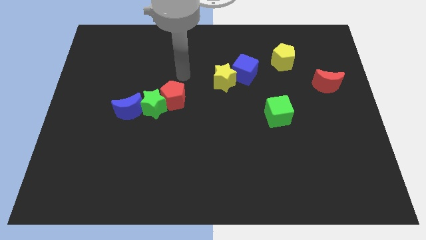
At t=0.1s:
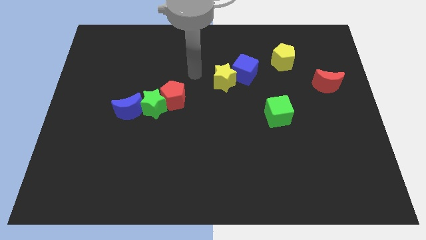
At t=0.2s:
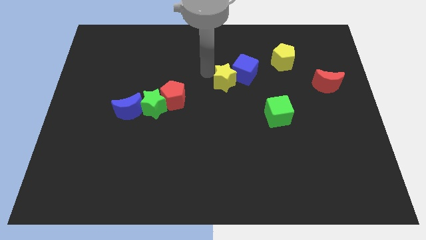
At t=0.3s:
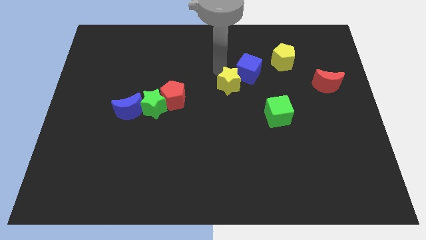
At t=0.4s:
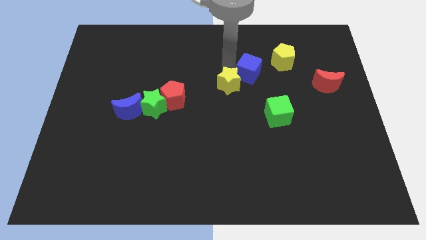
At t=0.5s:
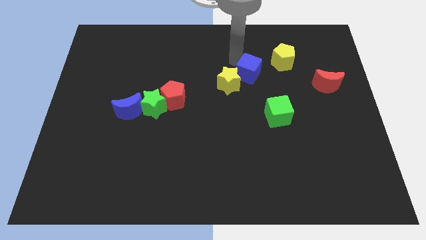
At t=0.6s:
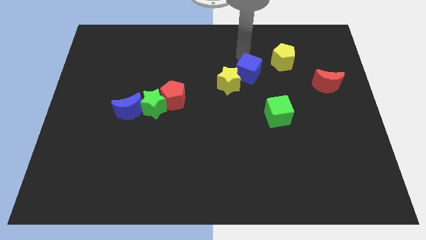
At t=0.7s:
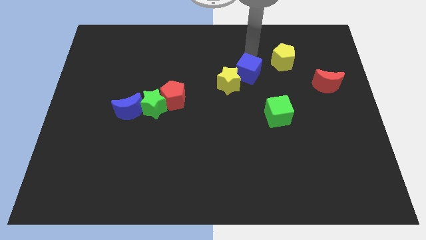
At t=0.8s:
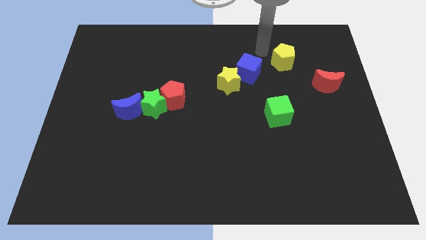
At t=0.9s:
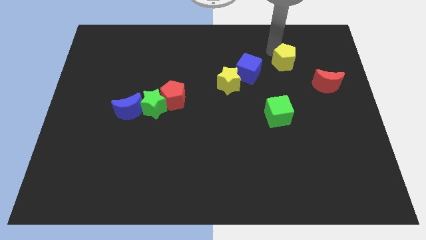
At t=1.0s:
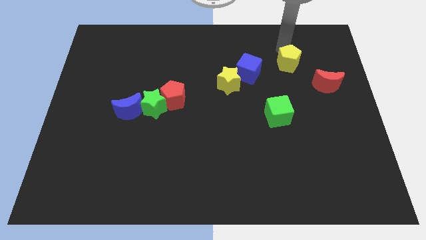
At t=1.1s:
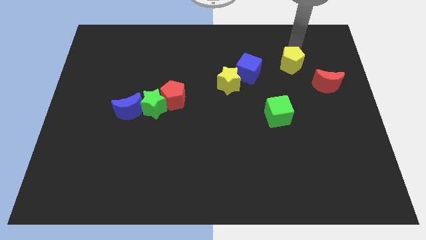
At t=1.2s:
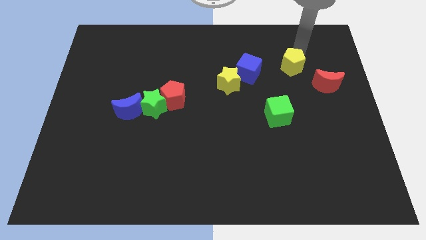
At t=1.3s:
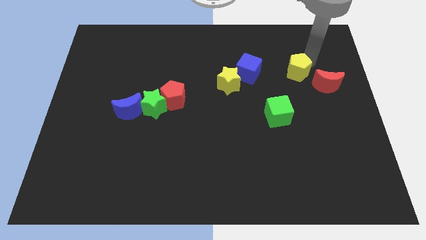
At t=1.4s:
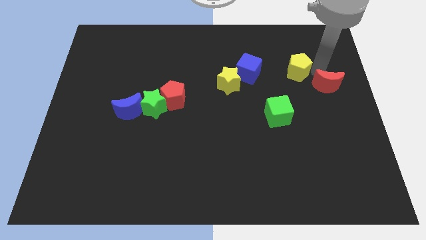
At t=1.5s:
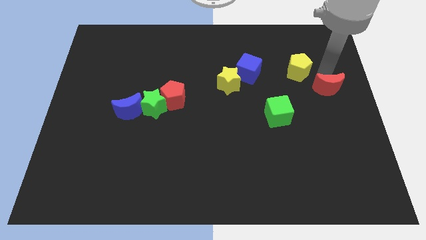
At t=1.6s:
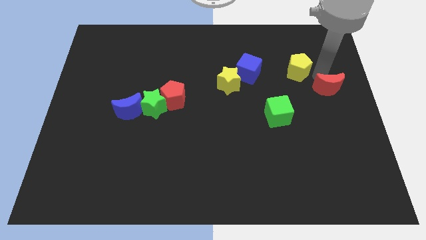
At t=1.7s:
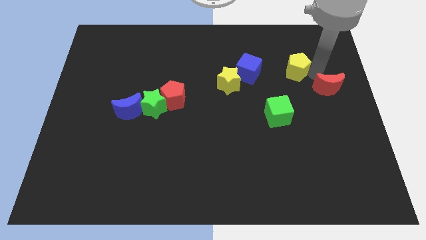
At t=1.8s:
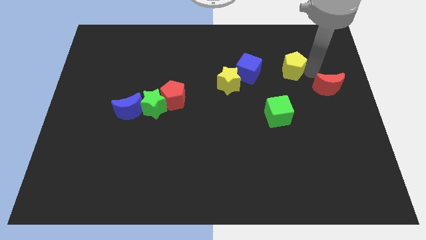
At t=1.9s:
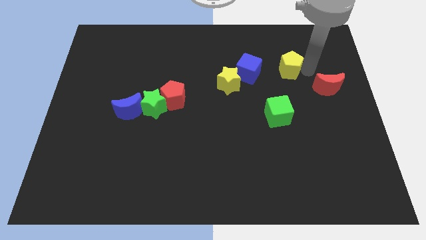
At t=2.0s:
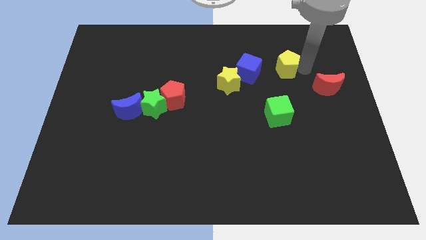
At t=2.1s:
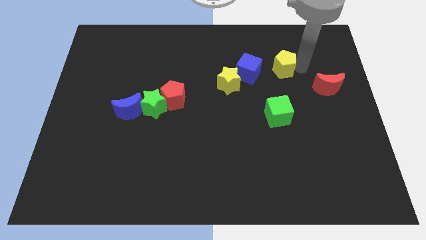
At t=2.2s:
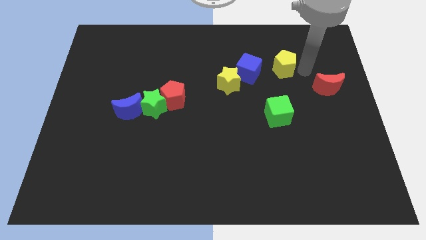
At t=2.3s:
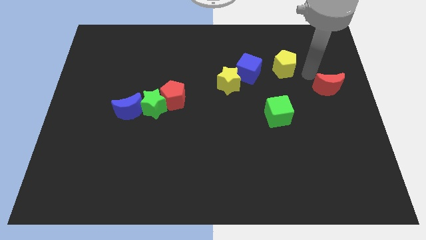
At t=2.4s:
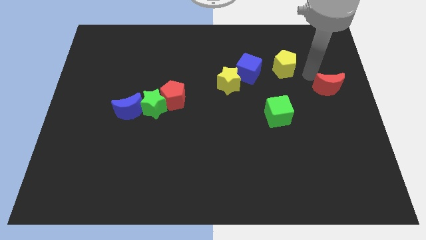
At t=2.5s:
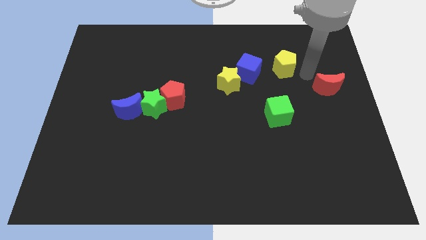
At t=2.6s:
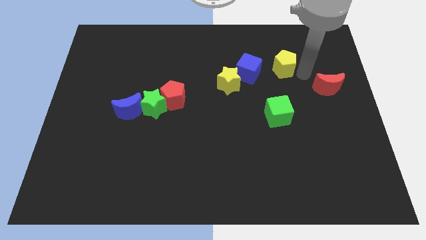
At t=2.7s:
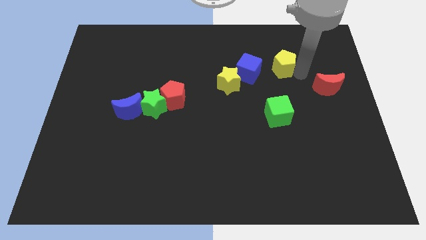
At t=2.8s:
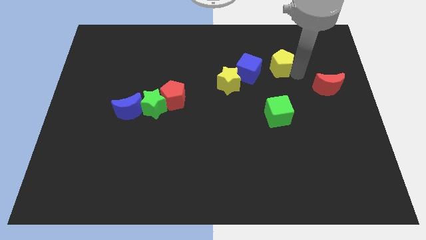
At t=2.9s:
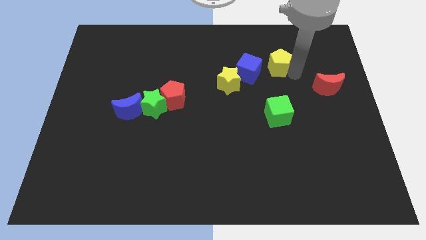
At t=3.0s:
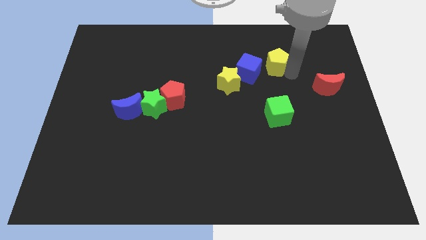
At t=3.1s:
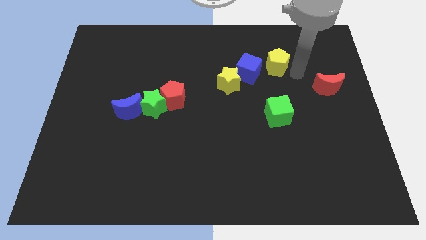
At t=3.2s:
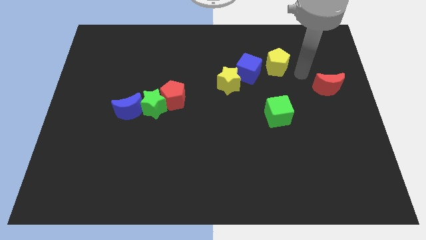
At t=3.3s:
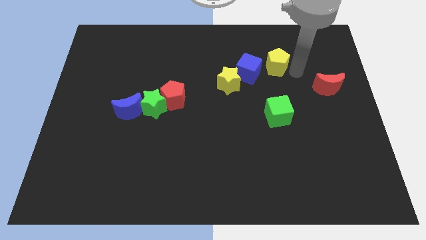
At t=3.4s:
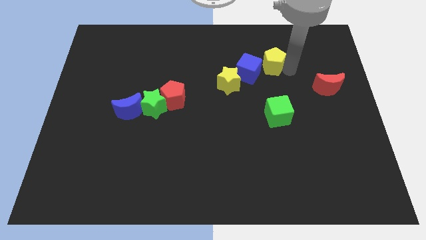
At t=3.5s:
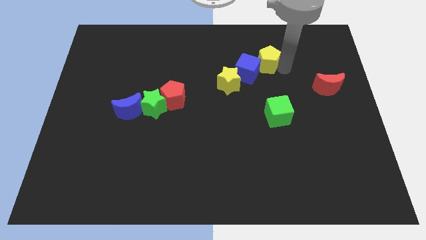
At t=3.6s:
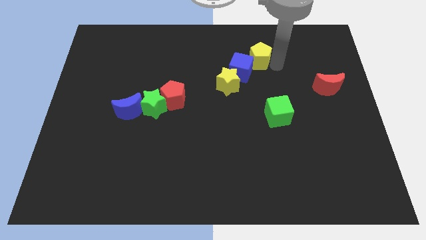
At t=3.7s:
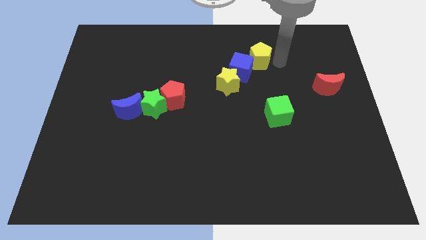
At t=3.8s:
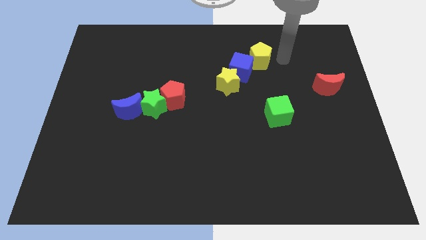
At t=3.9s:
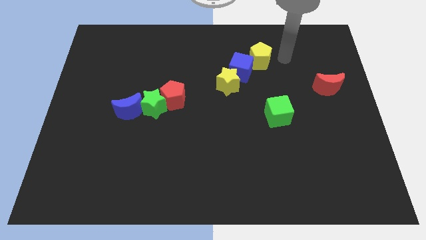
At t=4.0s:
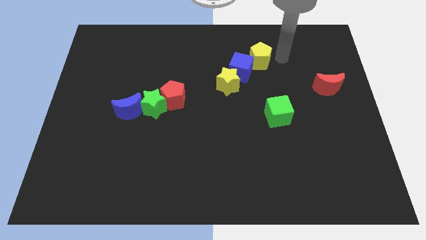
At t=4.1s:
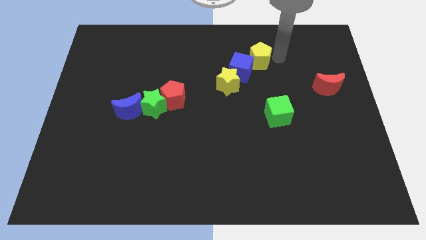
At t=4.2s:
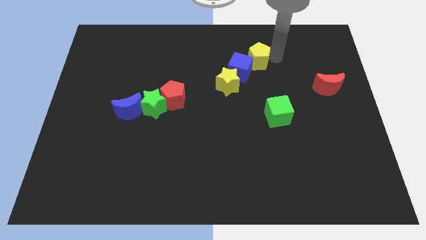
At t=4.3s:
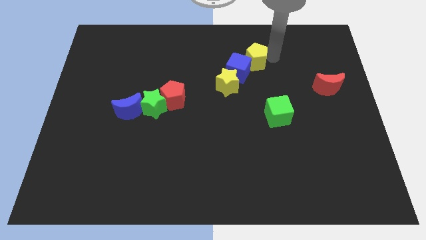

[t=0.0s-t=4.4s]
slide the yellow pentagon somewhat left

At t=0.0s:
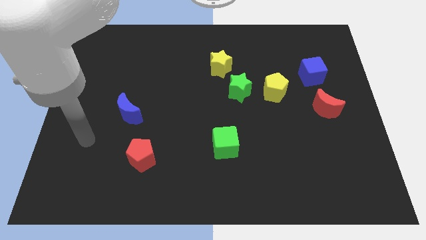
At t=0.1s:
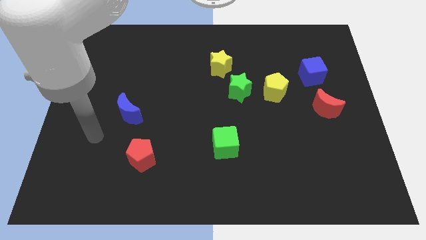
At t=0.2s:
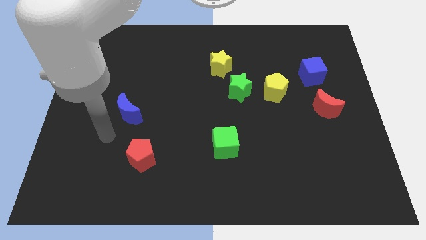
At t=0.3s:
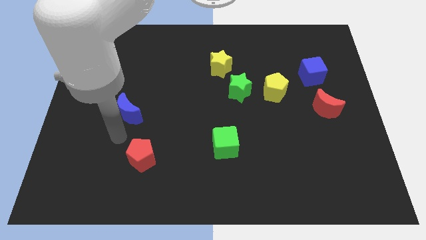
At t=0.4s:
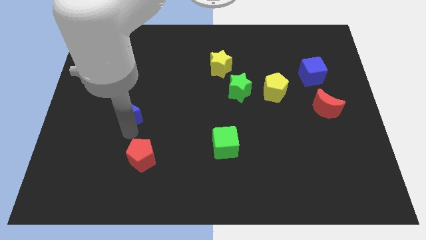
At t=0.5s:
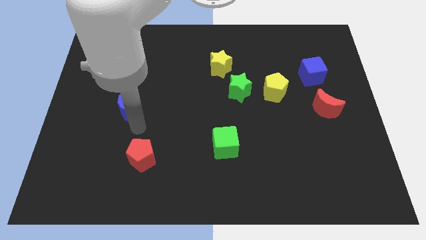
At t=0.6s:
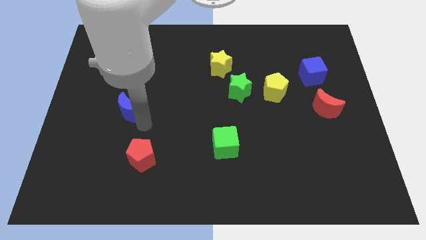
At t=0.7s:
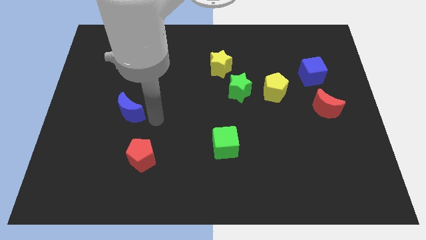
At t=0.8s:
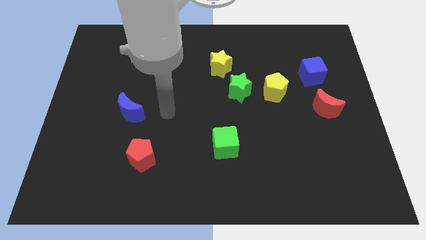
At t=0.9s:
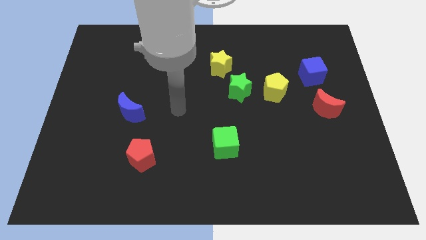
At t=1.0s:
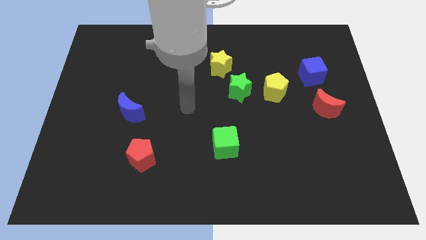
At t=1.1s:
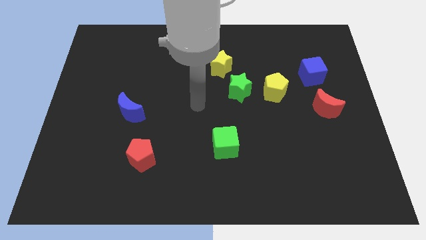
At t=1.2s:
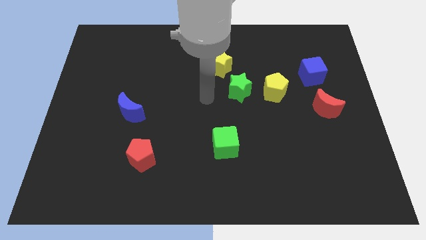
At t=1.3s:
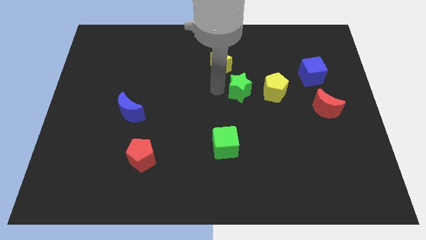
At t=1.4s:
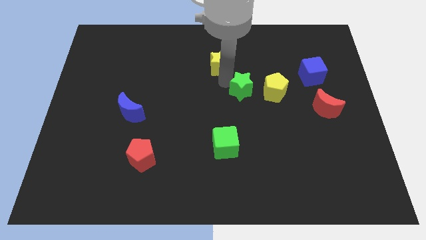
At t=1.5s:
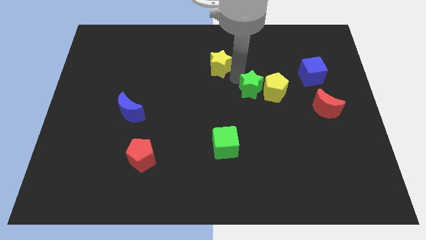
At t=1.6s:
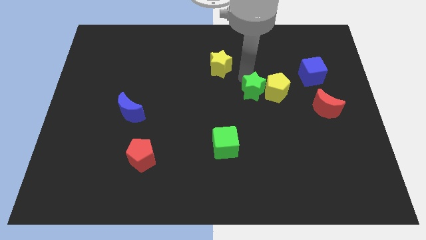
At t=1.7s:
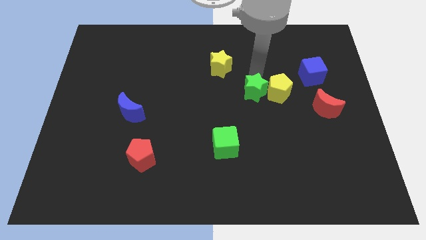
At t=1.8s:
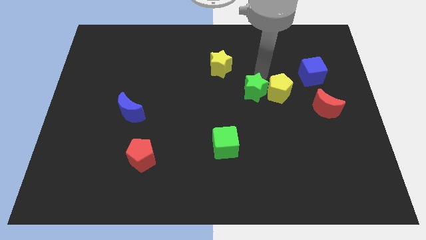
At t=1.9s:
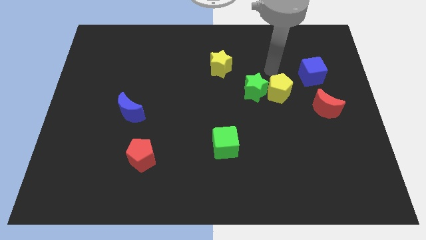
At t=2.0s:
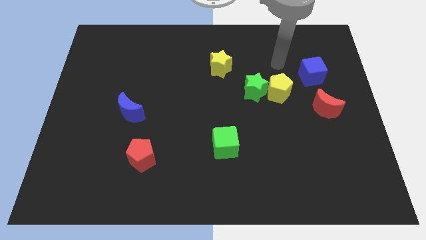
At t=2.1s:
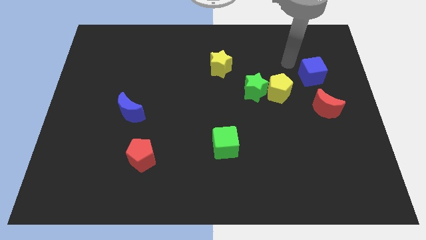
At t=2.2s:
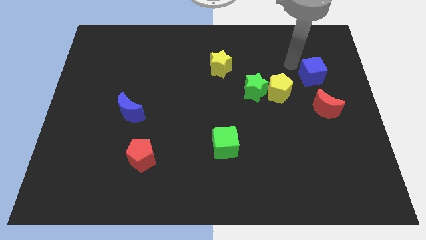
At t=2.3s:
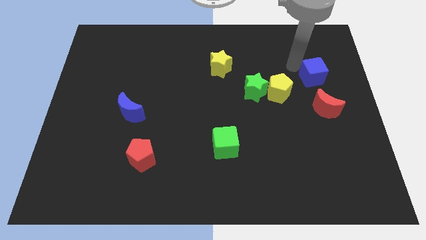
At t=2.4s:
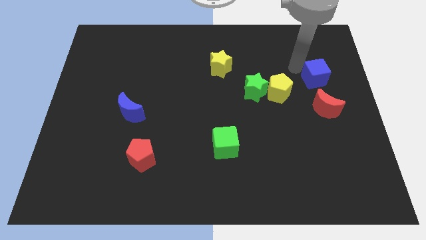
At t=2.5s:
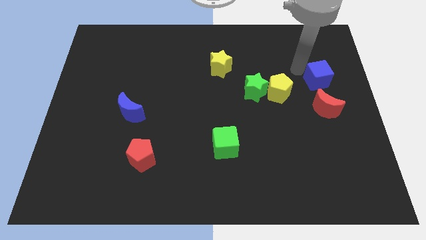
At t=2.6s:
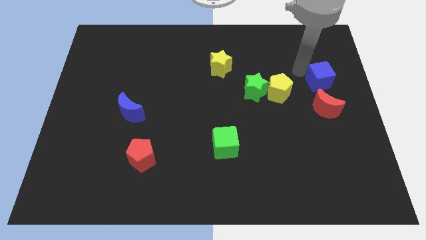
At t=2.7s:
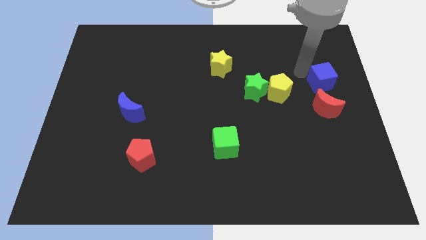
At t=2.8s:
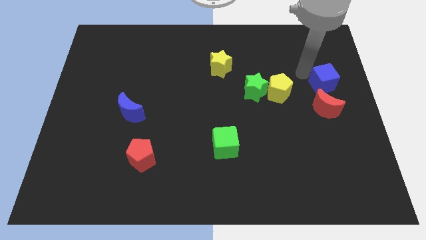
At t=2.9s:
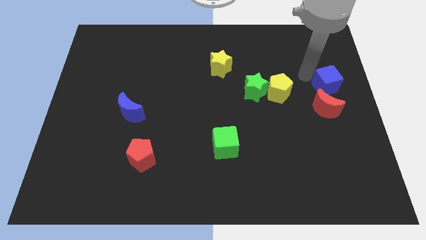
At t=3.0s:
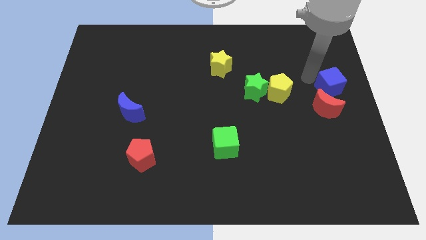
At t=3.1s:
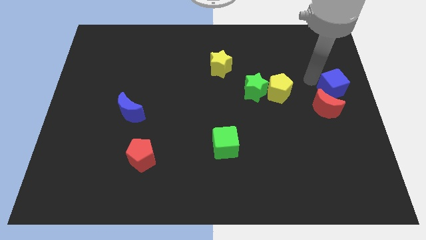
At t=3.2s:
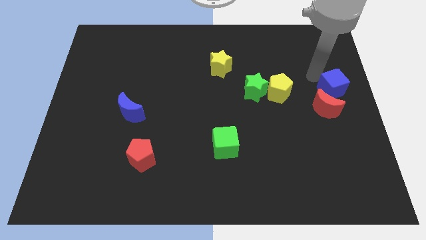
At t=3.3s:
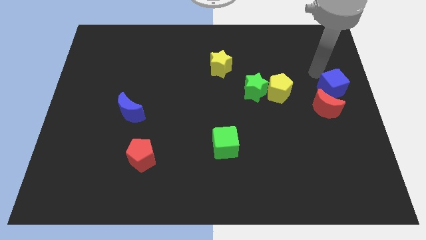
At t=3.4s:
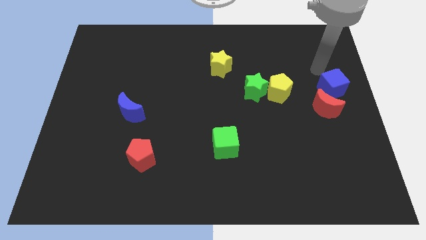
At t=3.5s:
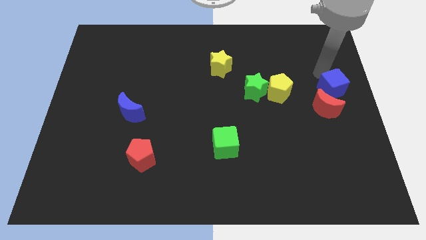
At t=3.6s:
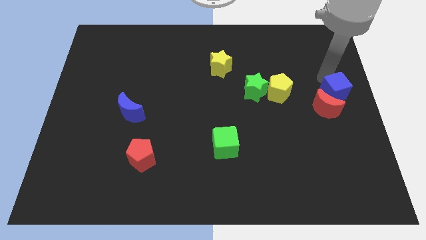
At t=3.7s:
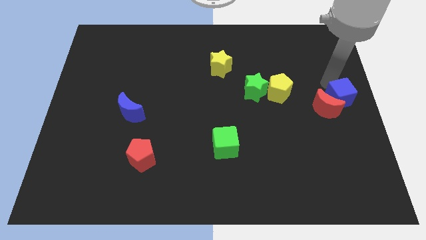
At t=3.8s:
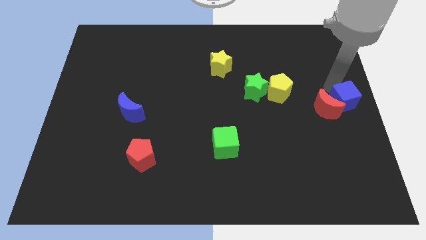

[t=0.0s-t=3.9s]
slide the blue cube somewhat down
